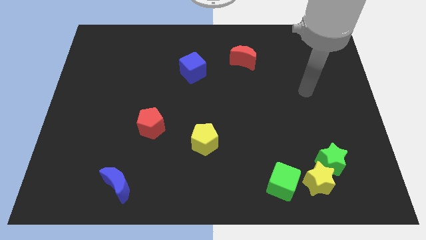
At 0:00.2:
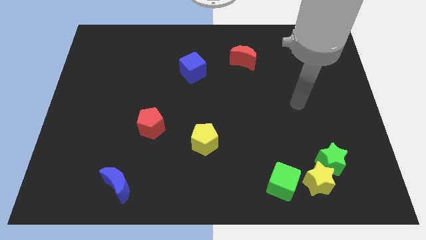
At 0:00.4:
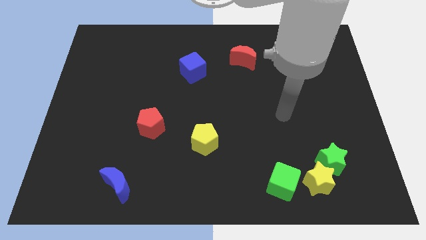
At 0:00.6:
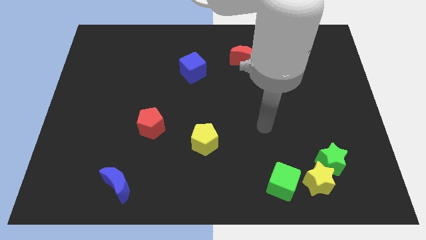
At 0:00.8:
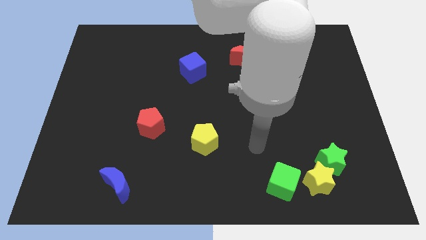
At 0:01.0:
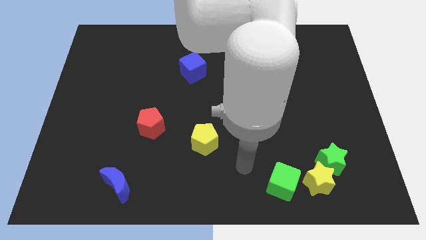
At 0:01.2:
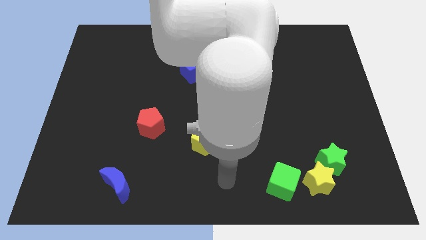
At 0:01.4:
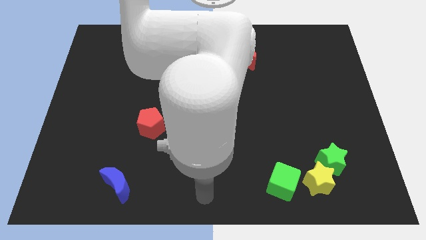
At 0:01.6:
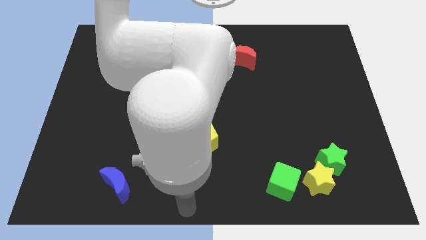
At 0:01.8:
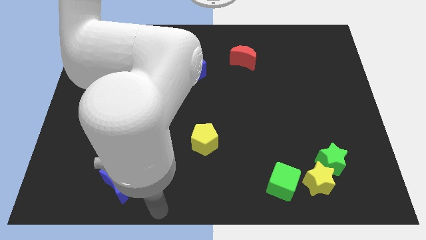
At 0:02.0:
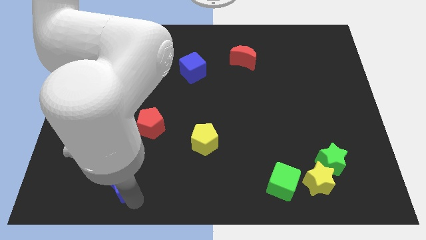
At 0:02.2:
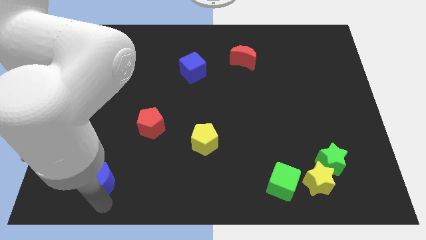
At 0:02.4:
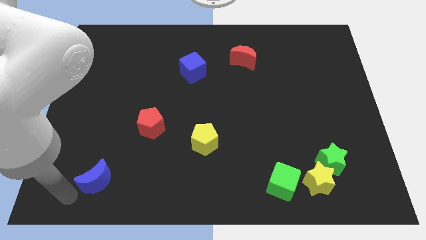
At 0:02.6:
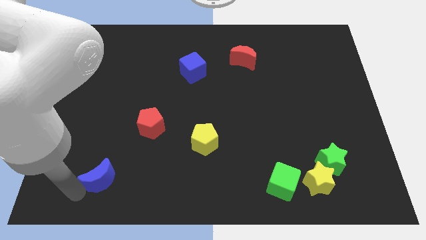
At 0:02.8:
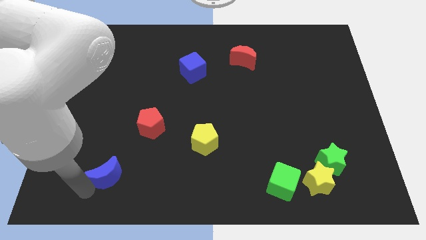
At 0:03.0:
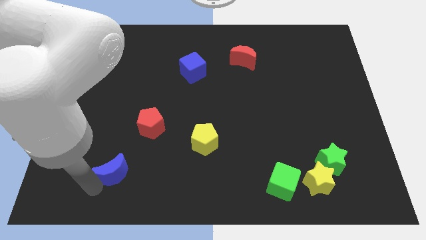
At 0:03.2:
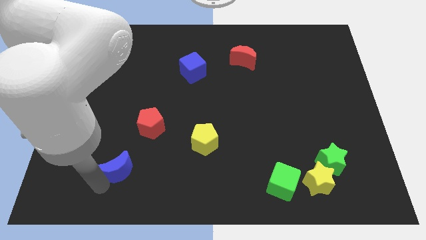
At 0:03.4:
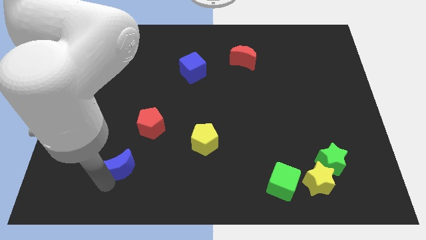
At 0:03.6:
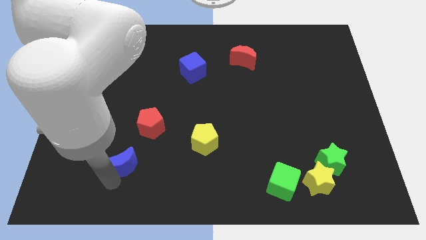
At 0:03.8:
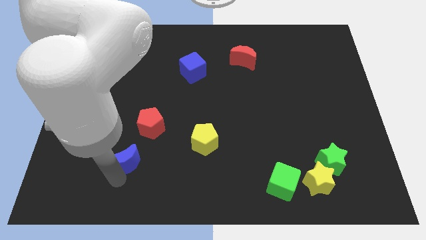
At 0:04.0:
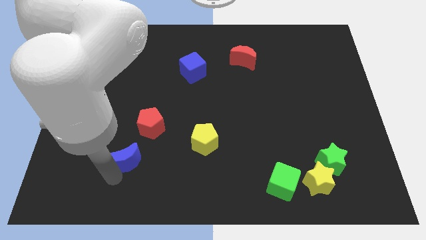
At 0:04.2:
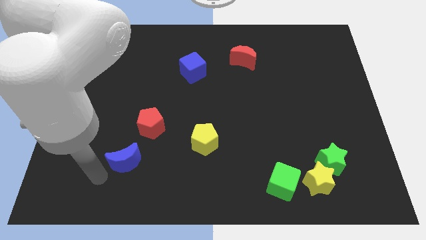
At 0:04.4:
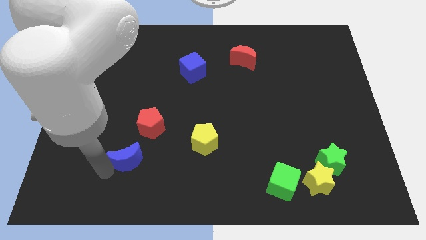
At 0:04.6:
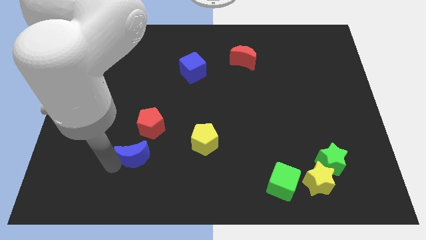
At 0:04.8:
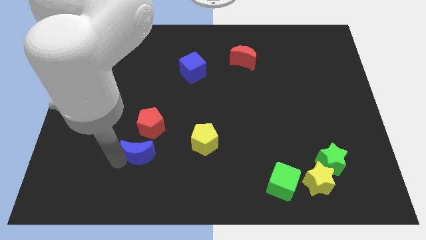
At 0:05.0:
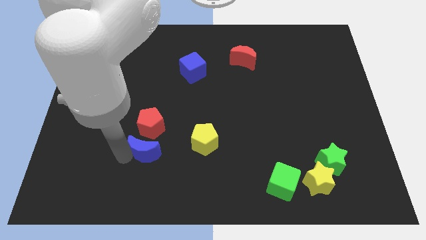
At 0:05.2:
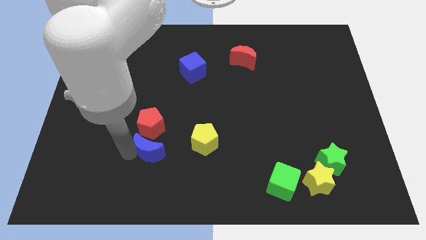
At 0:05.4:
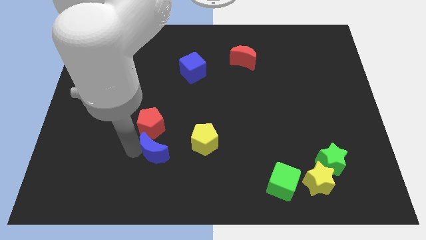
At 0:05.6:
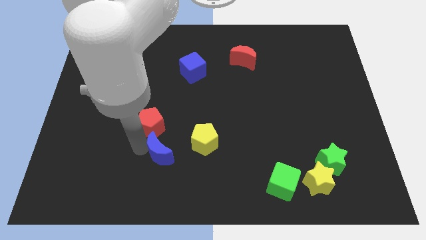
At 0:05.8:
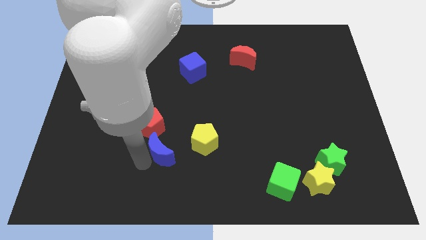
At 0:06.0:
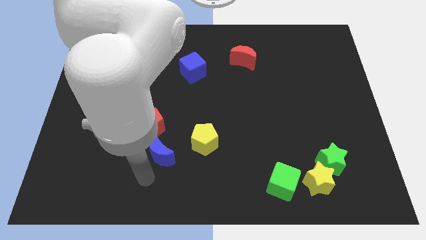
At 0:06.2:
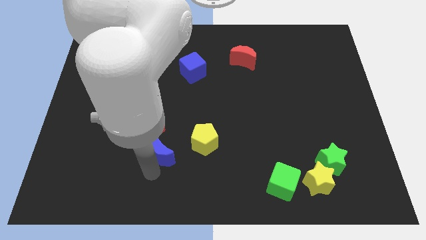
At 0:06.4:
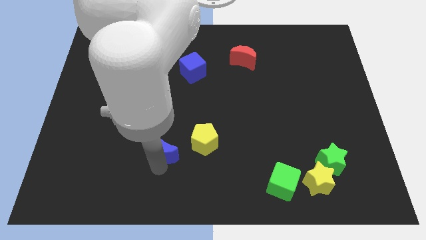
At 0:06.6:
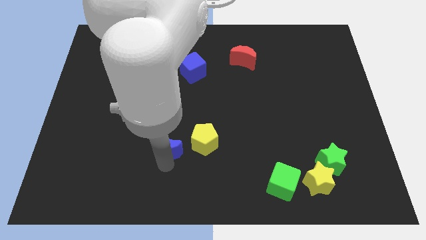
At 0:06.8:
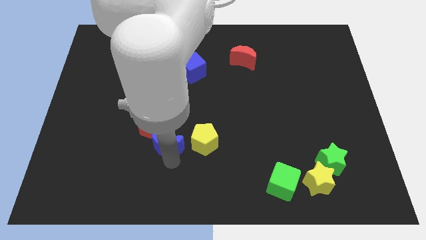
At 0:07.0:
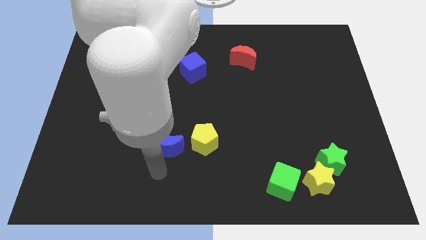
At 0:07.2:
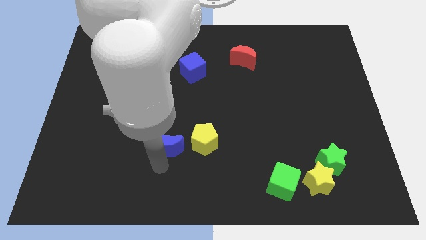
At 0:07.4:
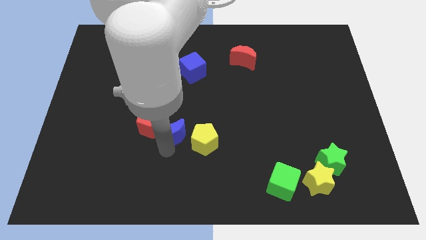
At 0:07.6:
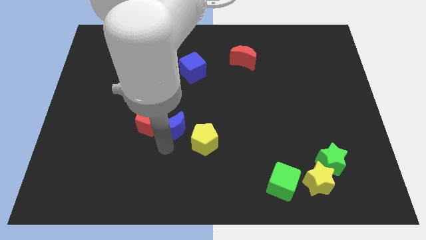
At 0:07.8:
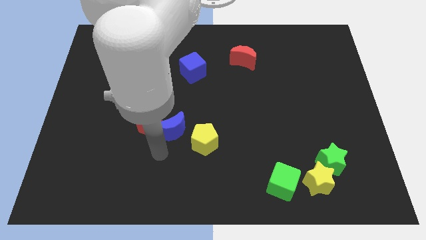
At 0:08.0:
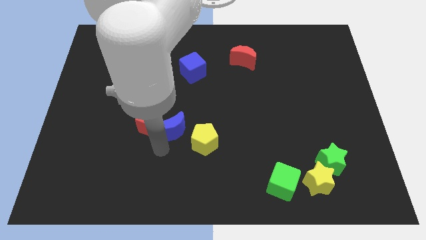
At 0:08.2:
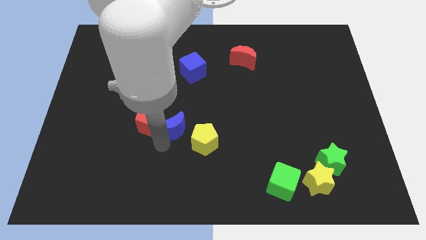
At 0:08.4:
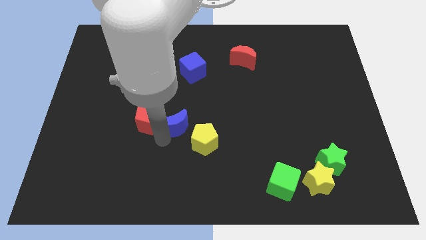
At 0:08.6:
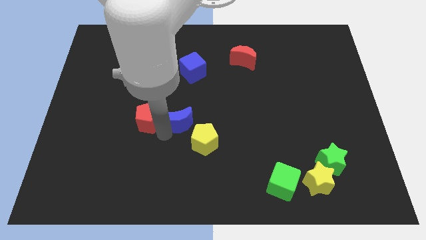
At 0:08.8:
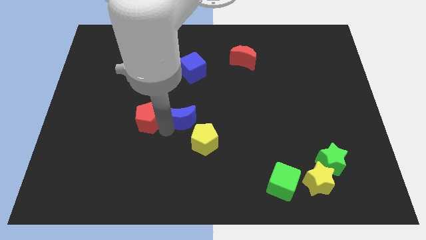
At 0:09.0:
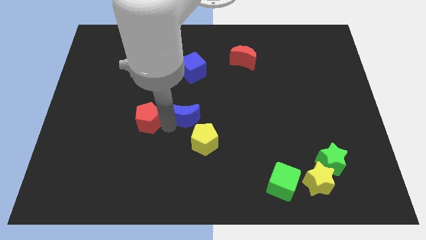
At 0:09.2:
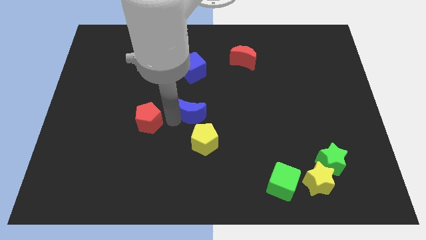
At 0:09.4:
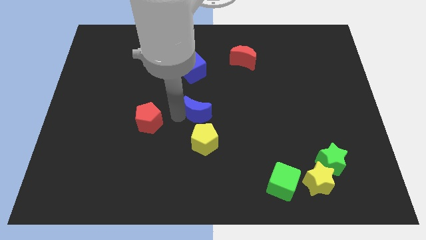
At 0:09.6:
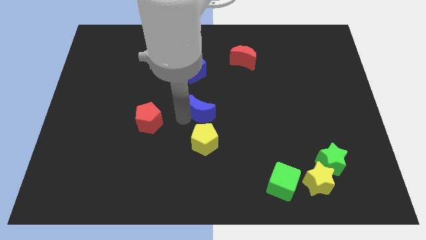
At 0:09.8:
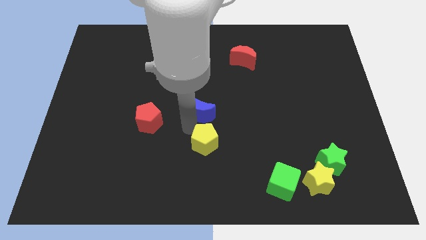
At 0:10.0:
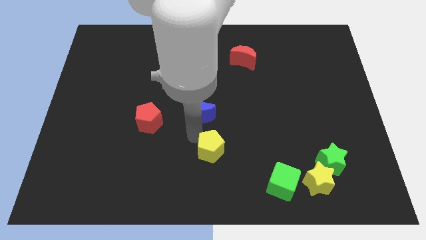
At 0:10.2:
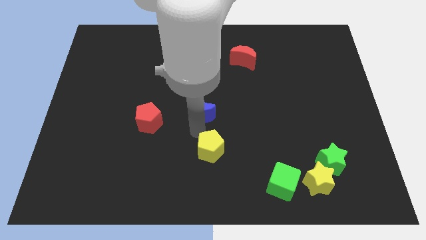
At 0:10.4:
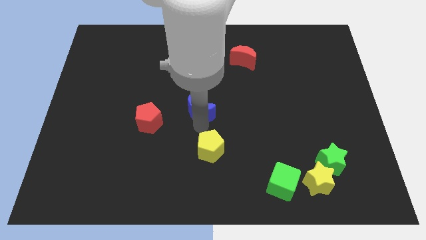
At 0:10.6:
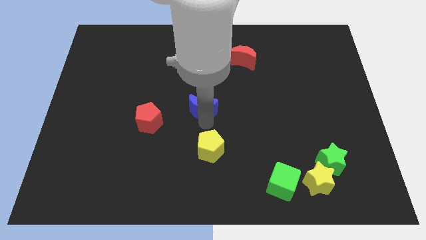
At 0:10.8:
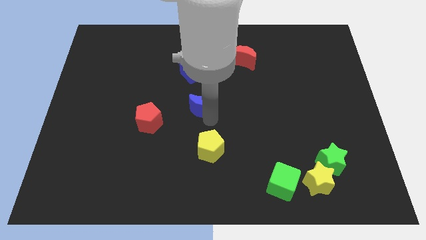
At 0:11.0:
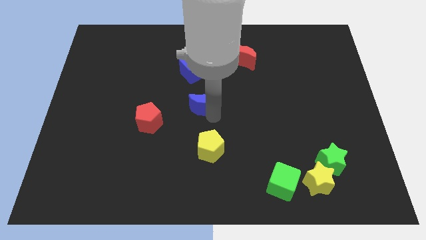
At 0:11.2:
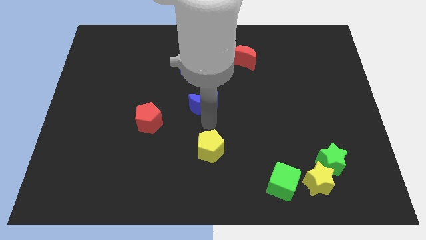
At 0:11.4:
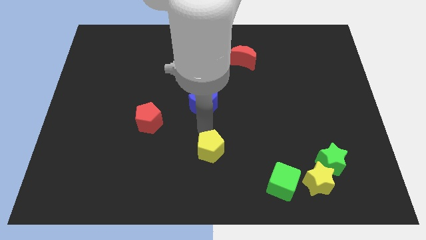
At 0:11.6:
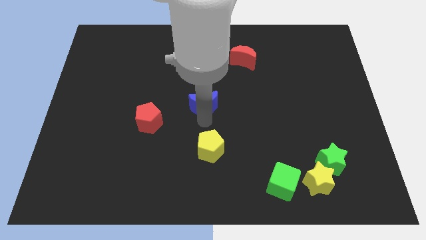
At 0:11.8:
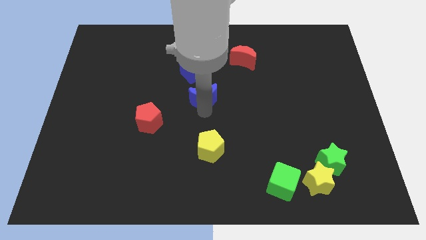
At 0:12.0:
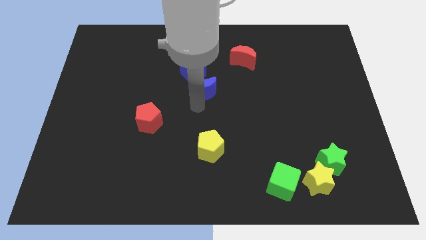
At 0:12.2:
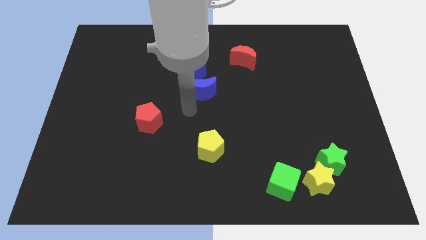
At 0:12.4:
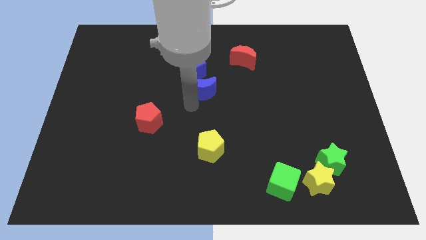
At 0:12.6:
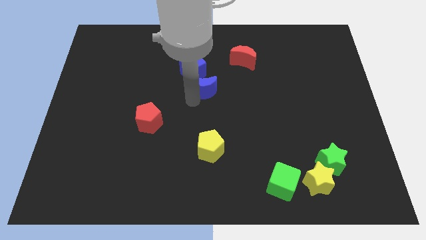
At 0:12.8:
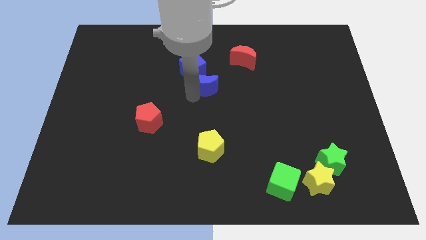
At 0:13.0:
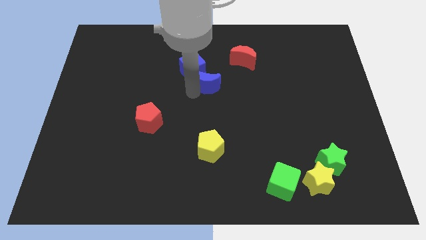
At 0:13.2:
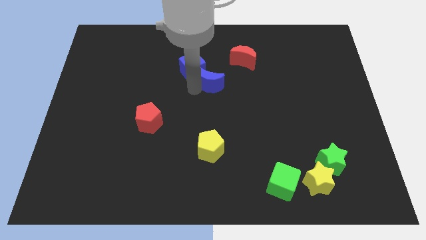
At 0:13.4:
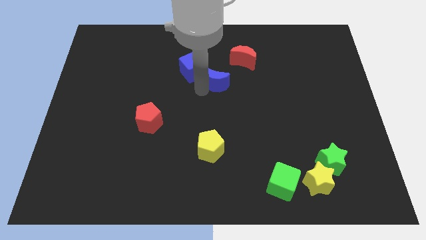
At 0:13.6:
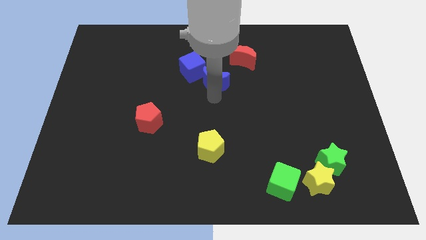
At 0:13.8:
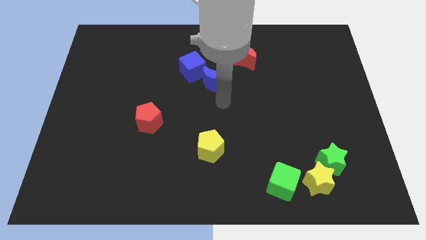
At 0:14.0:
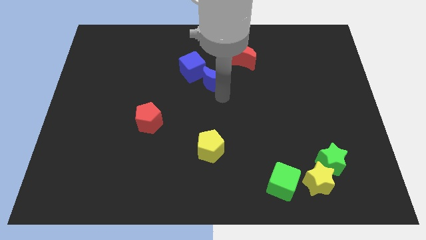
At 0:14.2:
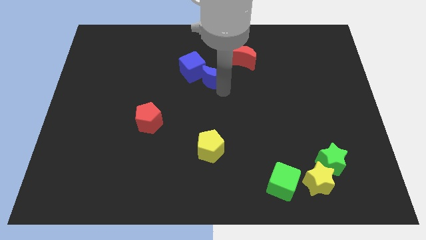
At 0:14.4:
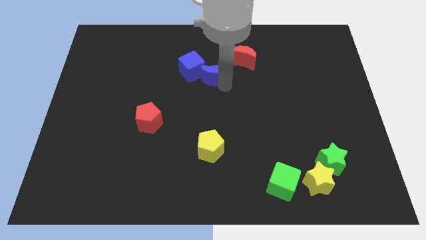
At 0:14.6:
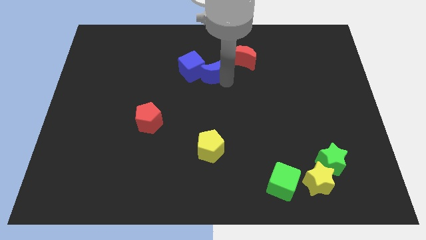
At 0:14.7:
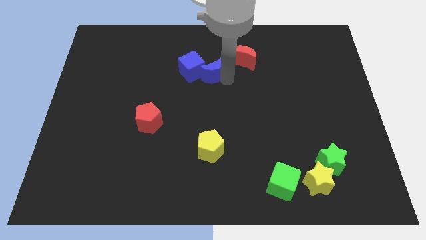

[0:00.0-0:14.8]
slide the blue moon to the left of the red moon

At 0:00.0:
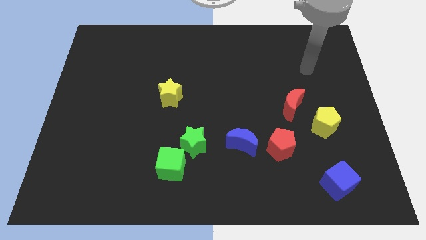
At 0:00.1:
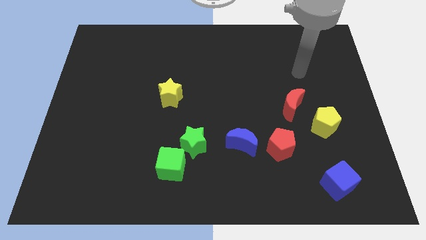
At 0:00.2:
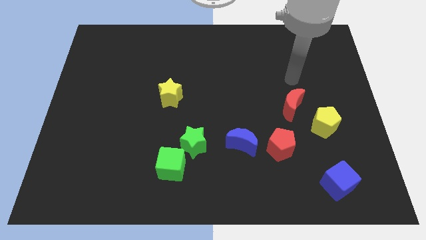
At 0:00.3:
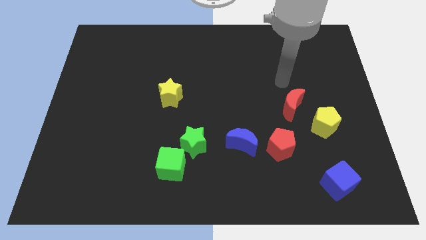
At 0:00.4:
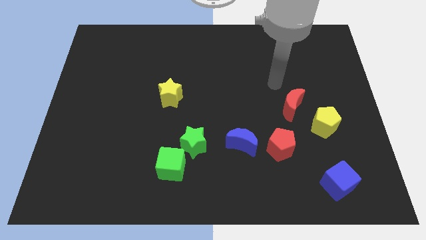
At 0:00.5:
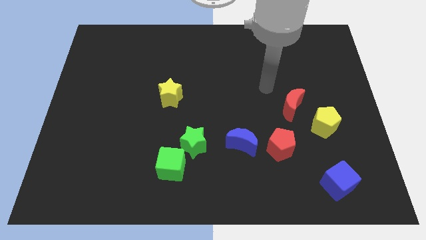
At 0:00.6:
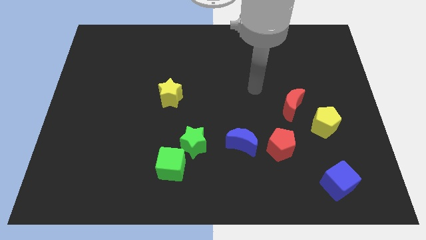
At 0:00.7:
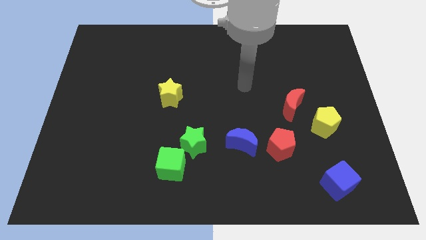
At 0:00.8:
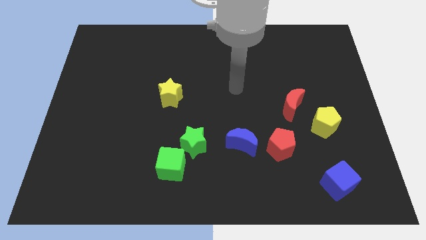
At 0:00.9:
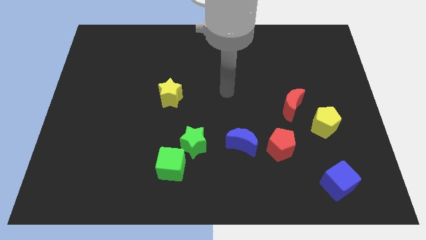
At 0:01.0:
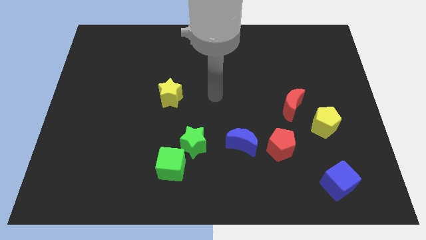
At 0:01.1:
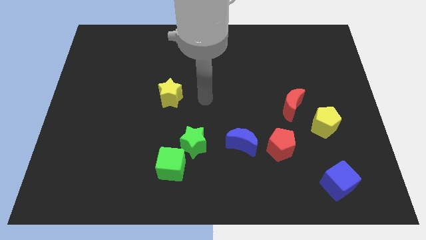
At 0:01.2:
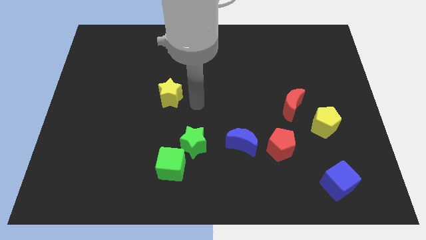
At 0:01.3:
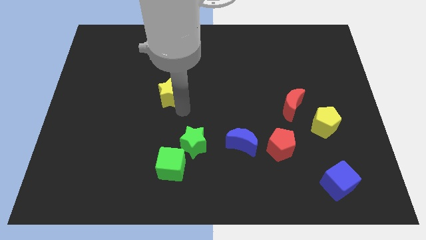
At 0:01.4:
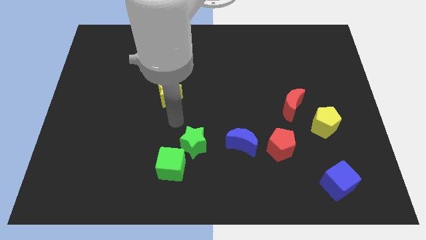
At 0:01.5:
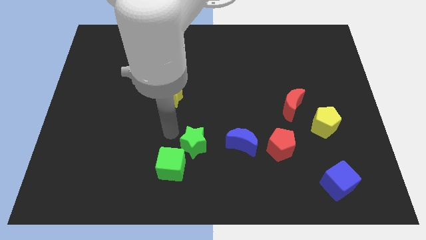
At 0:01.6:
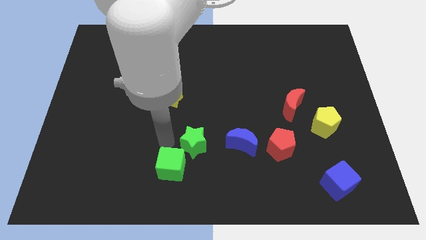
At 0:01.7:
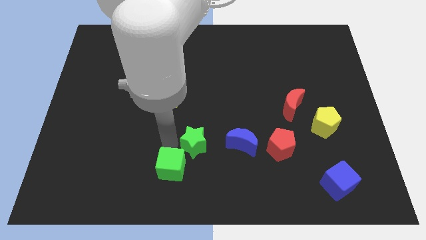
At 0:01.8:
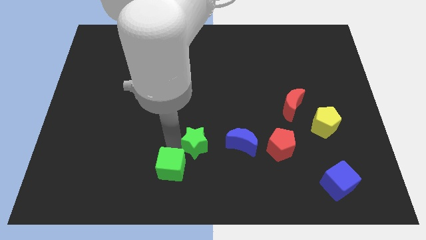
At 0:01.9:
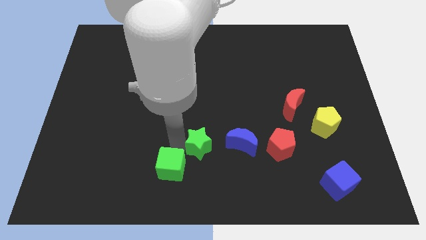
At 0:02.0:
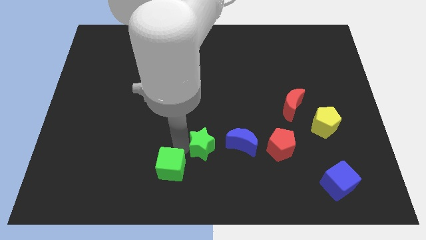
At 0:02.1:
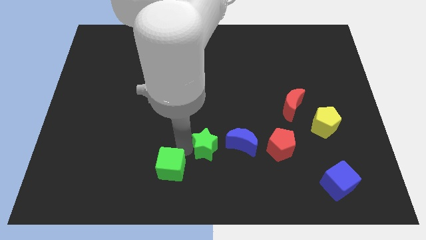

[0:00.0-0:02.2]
push the green star left of the red pentagon
